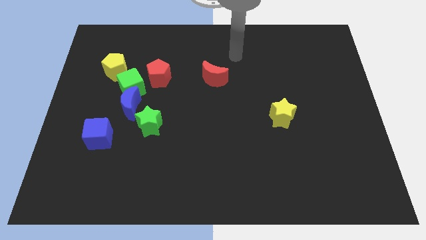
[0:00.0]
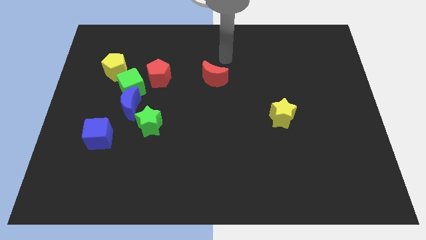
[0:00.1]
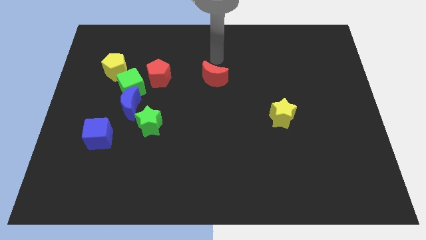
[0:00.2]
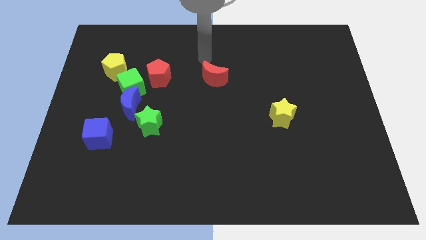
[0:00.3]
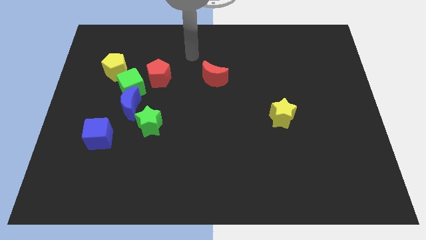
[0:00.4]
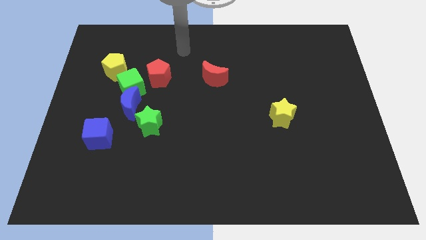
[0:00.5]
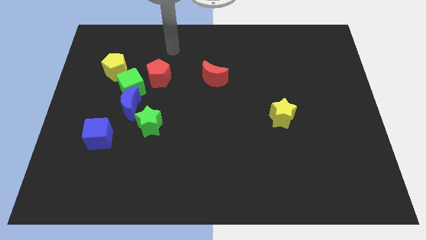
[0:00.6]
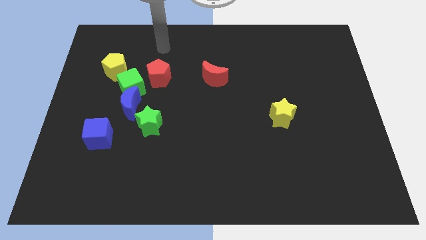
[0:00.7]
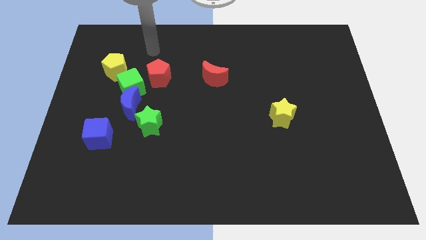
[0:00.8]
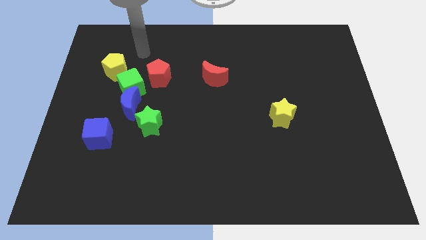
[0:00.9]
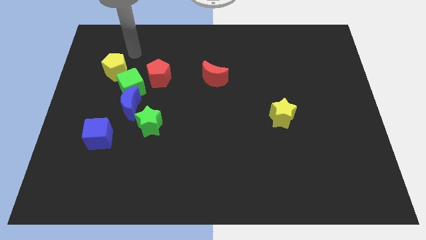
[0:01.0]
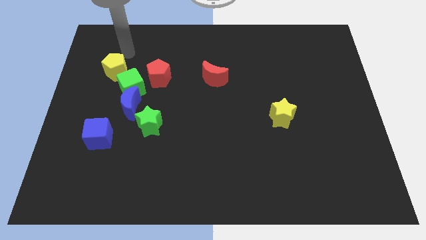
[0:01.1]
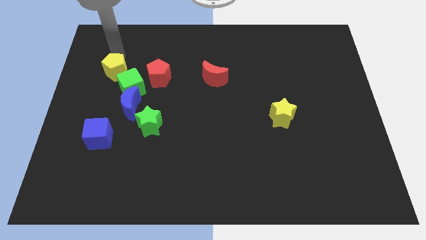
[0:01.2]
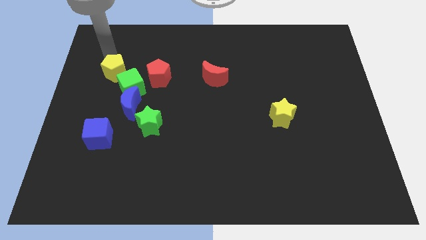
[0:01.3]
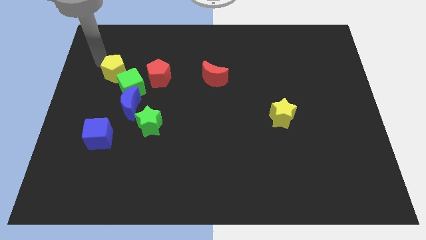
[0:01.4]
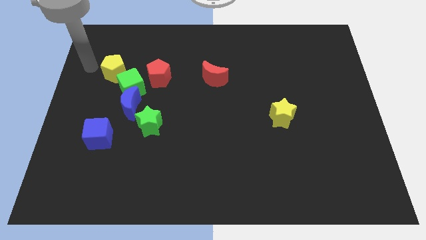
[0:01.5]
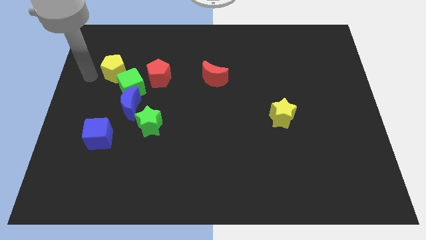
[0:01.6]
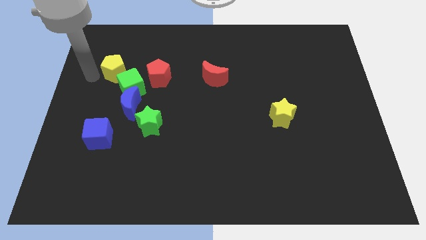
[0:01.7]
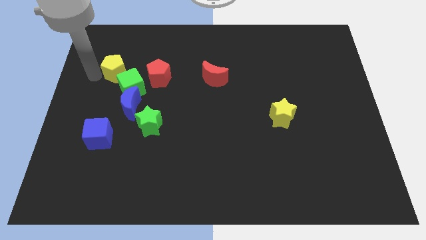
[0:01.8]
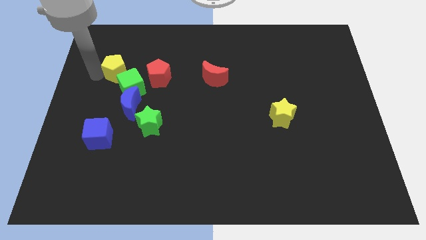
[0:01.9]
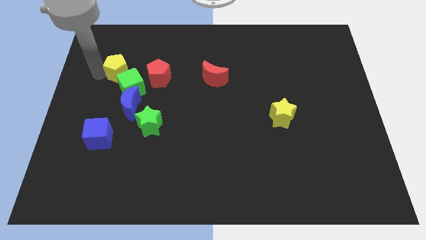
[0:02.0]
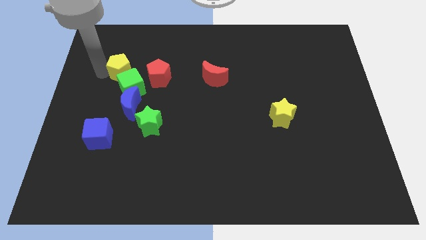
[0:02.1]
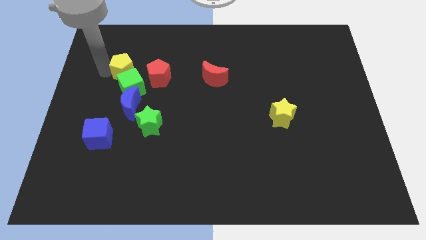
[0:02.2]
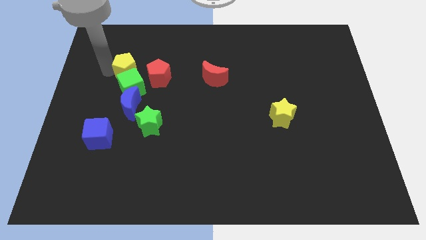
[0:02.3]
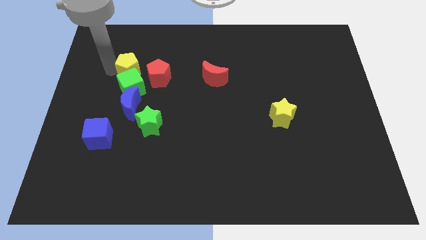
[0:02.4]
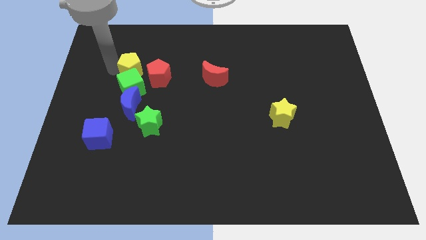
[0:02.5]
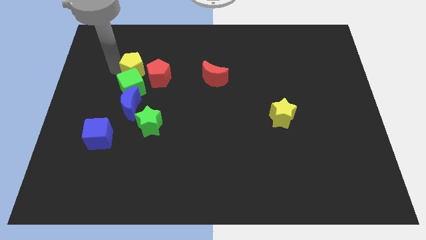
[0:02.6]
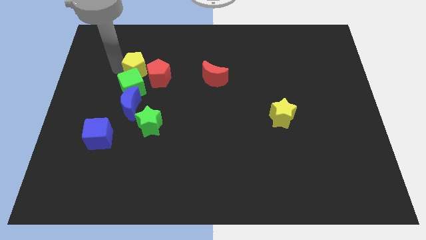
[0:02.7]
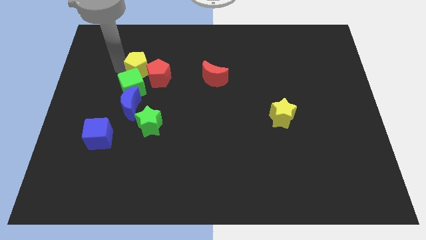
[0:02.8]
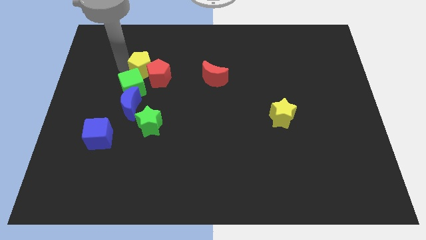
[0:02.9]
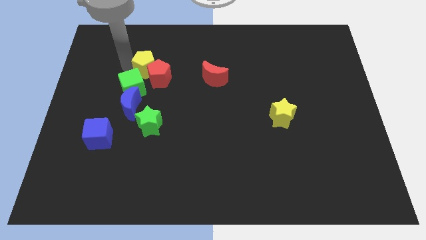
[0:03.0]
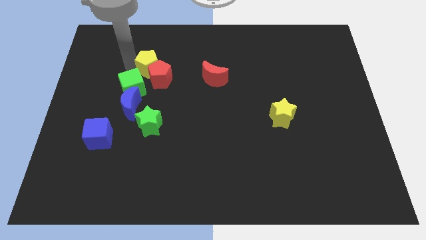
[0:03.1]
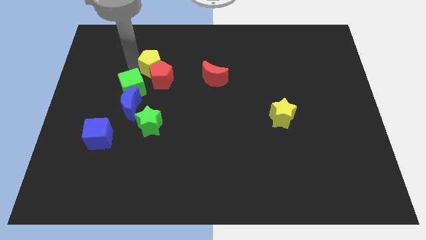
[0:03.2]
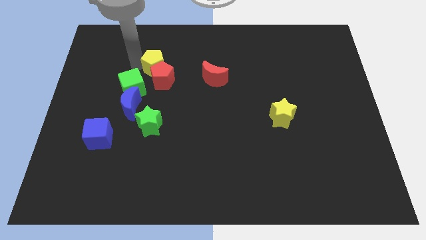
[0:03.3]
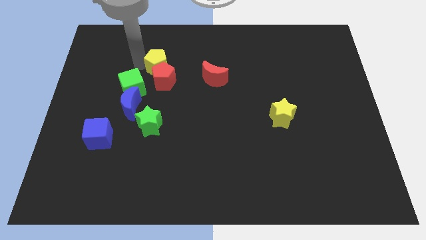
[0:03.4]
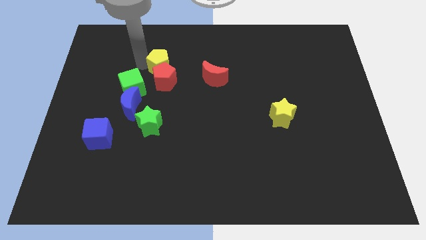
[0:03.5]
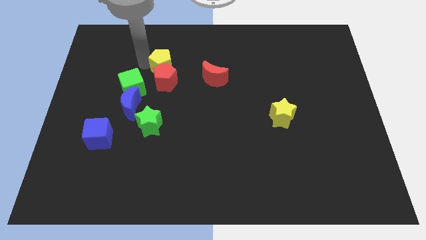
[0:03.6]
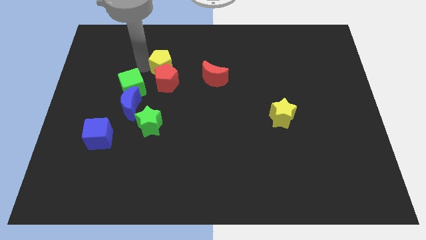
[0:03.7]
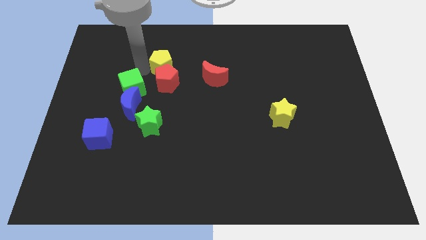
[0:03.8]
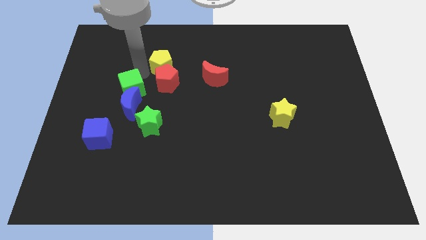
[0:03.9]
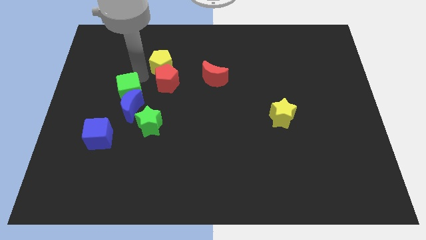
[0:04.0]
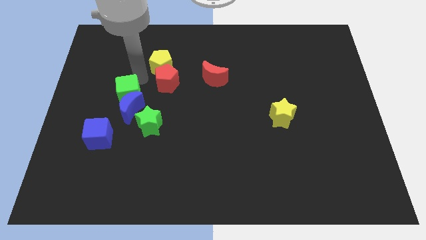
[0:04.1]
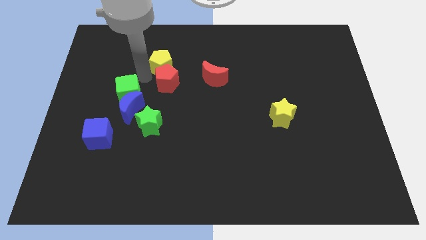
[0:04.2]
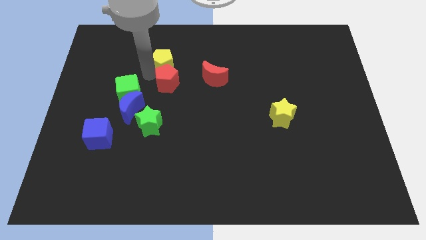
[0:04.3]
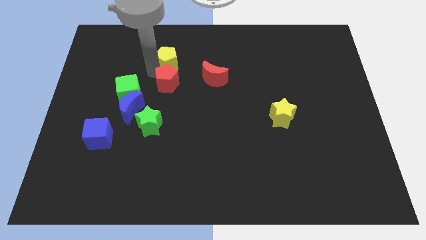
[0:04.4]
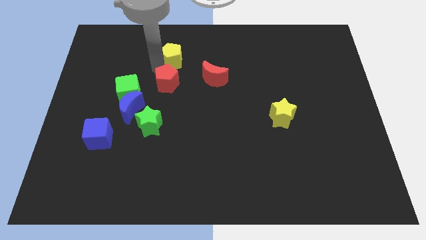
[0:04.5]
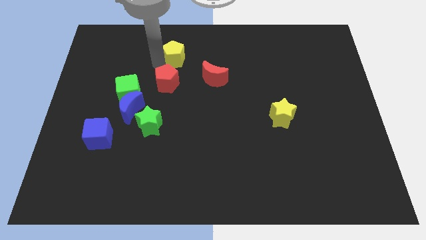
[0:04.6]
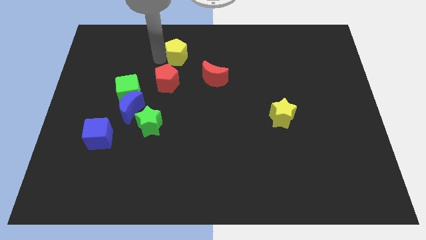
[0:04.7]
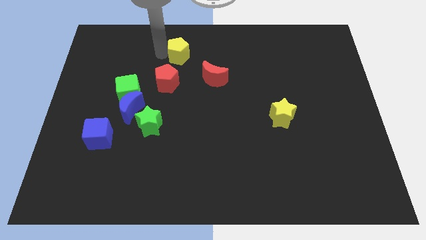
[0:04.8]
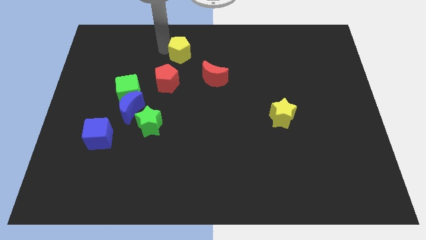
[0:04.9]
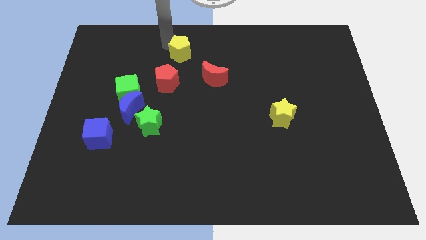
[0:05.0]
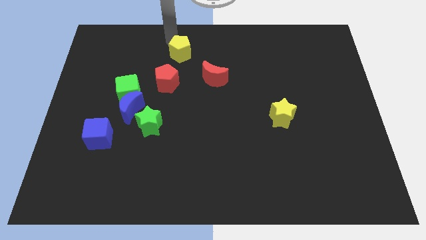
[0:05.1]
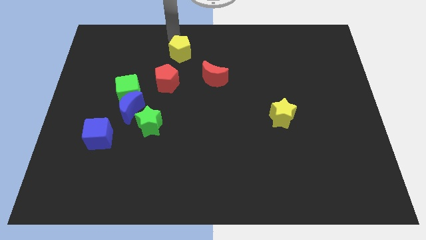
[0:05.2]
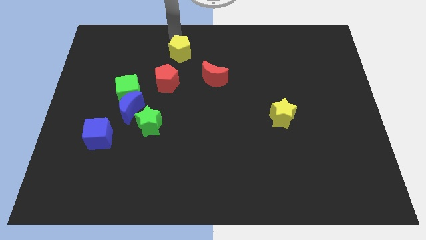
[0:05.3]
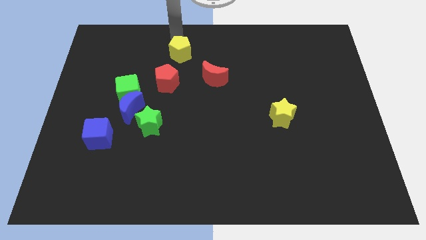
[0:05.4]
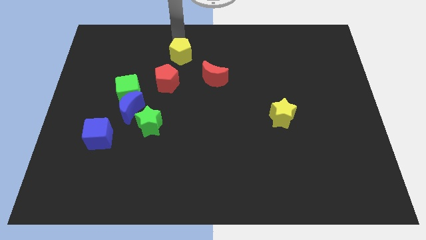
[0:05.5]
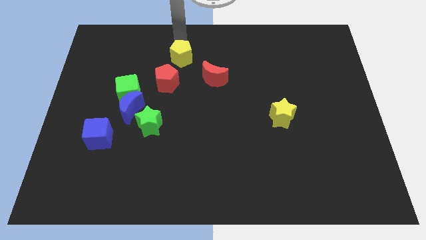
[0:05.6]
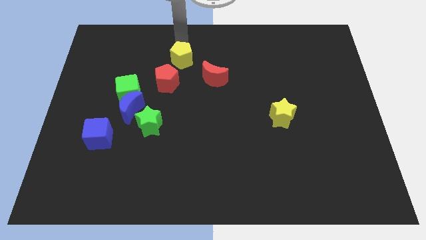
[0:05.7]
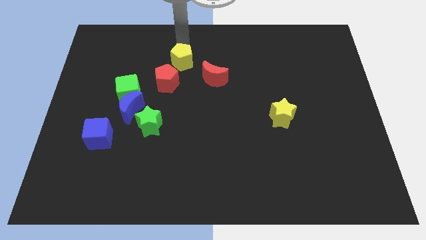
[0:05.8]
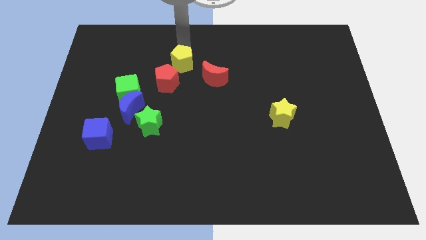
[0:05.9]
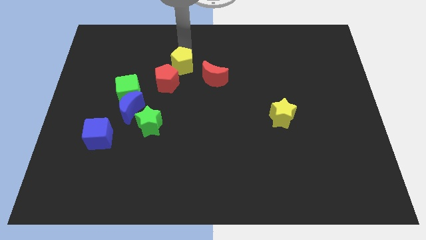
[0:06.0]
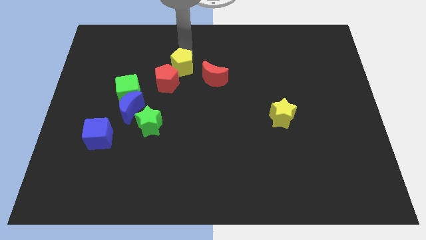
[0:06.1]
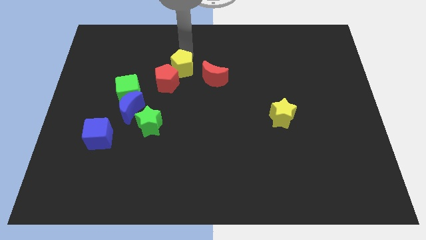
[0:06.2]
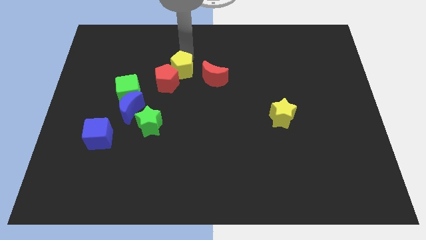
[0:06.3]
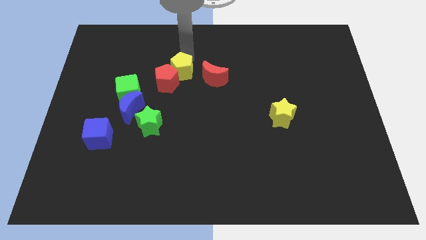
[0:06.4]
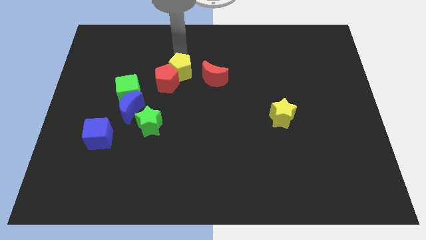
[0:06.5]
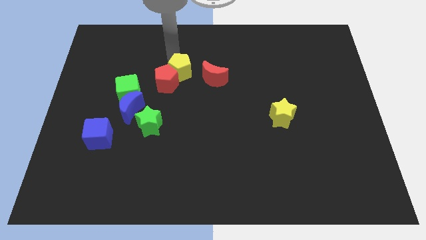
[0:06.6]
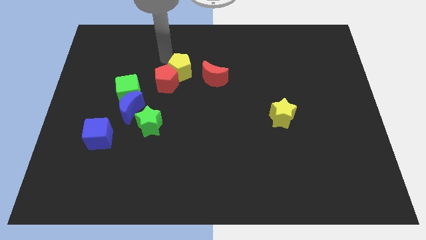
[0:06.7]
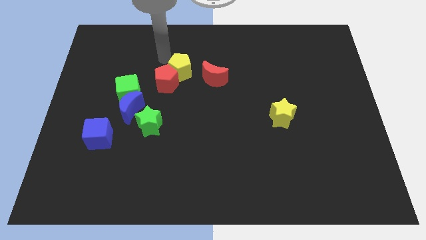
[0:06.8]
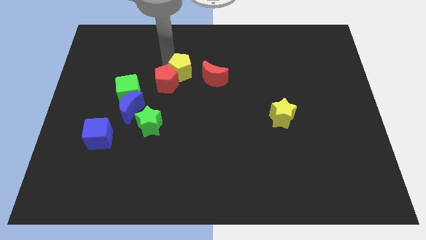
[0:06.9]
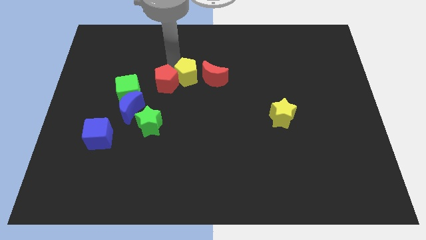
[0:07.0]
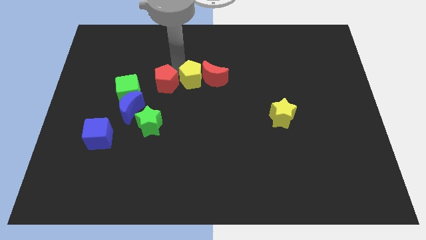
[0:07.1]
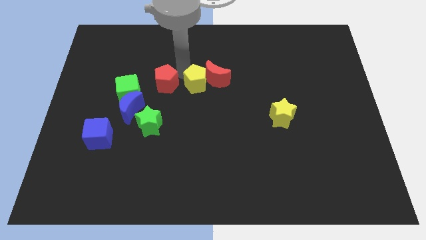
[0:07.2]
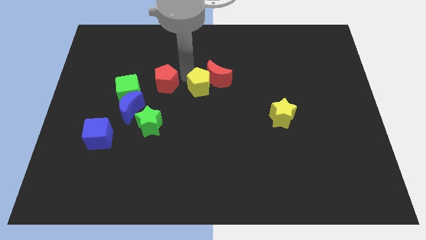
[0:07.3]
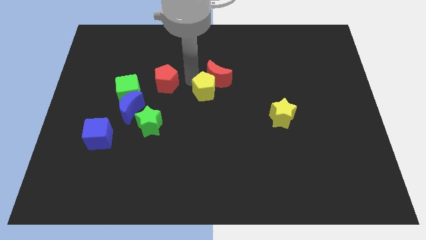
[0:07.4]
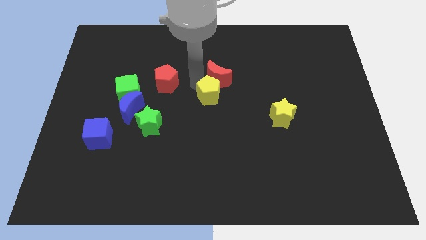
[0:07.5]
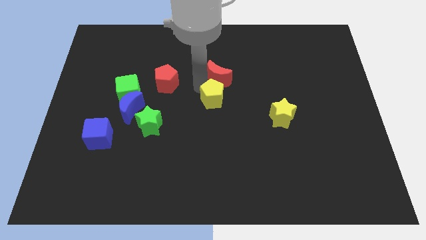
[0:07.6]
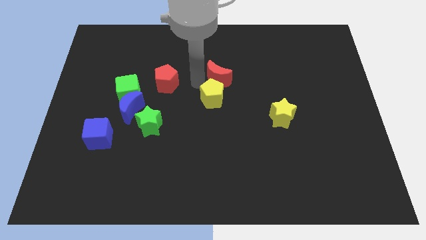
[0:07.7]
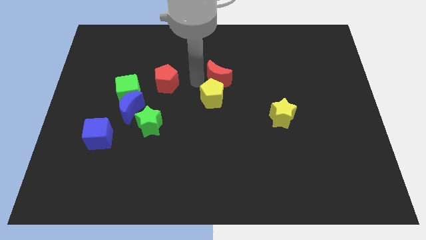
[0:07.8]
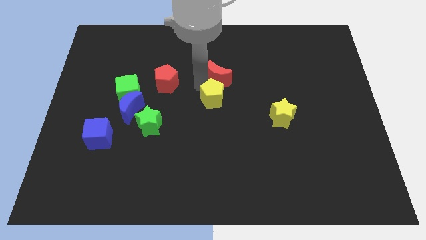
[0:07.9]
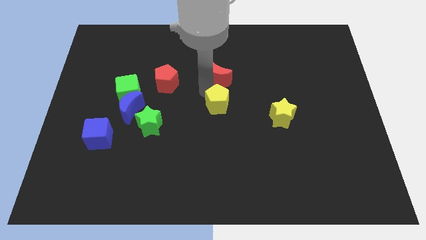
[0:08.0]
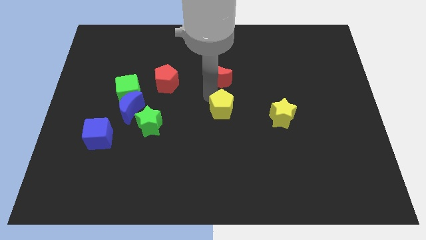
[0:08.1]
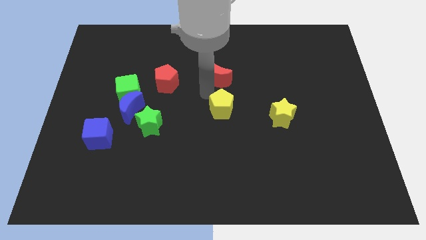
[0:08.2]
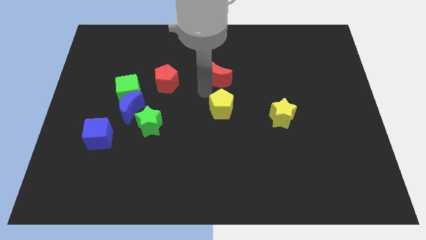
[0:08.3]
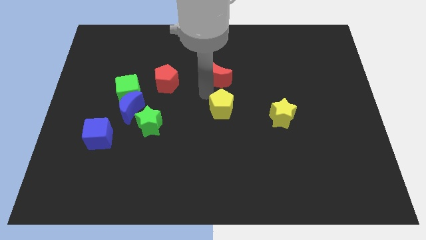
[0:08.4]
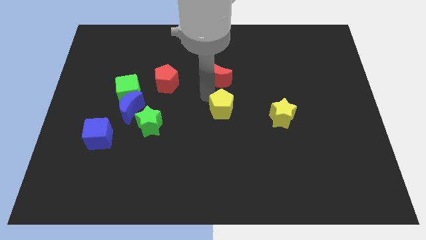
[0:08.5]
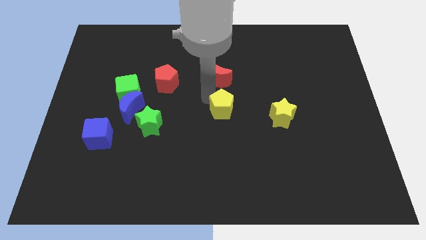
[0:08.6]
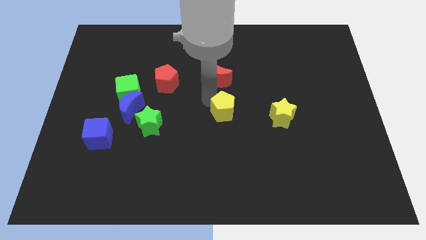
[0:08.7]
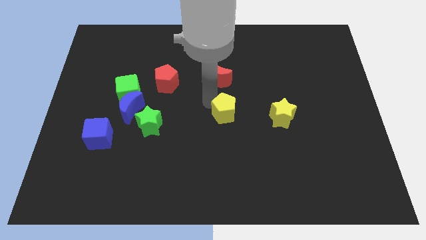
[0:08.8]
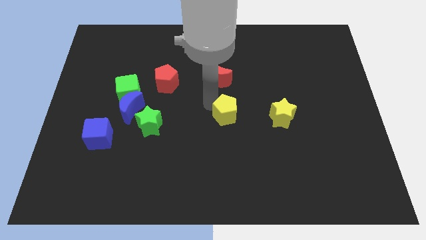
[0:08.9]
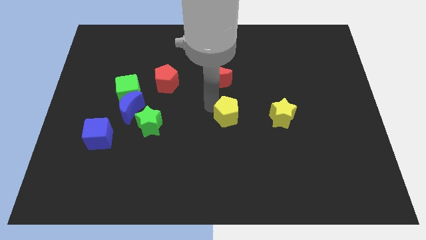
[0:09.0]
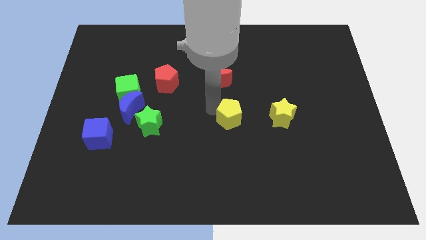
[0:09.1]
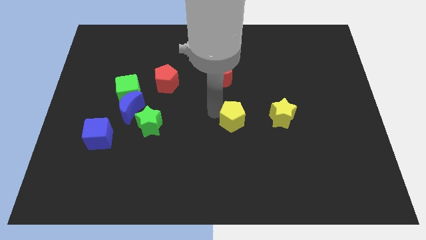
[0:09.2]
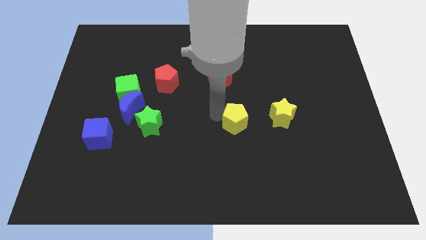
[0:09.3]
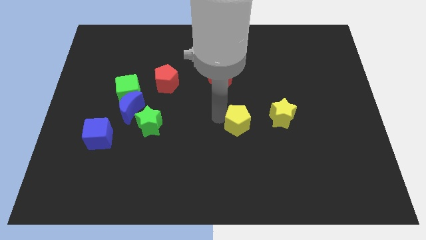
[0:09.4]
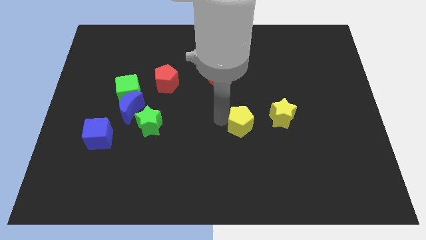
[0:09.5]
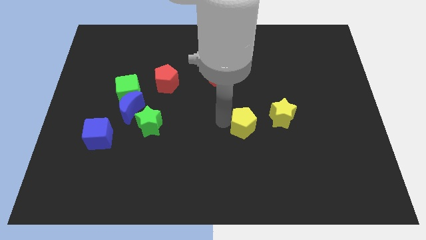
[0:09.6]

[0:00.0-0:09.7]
slide the yellow pentagon to the bottom left of the yellow star
